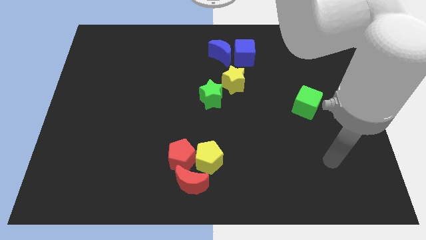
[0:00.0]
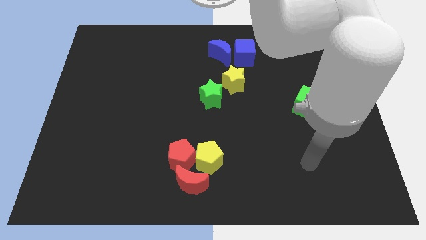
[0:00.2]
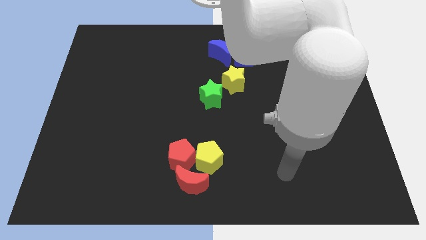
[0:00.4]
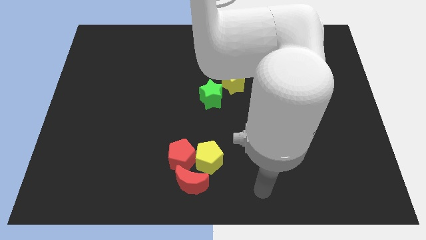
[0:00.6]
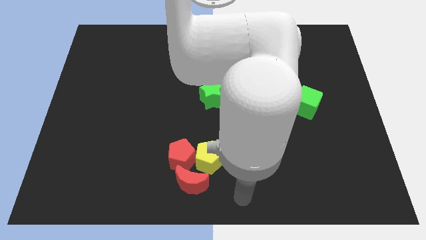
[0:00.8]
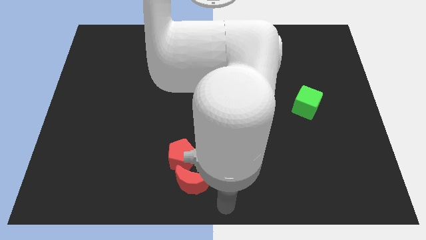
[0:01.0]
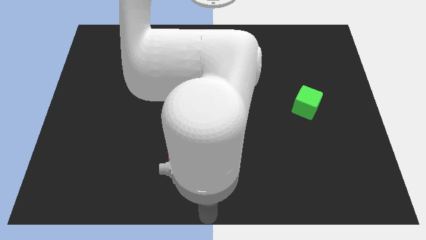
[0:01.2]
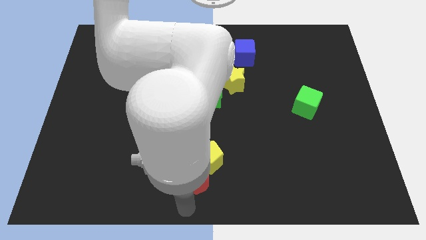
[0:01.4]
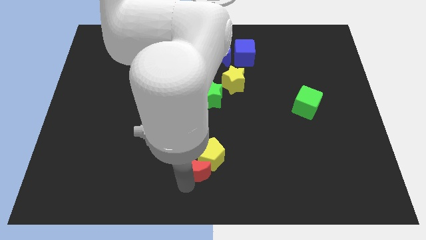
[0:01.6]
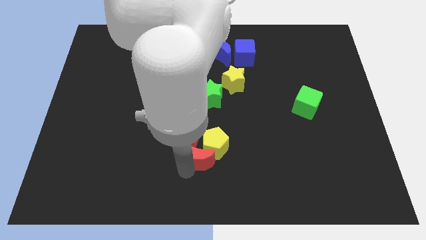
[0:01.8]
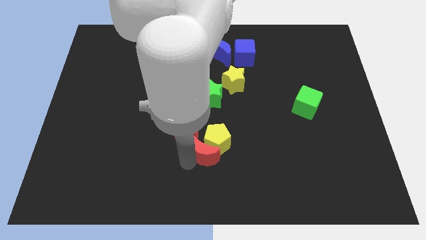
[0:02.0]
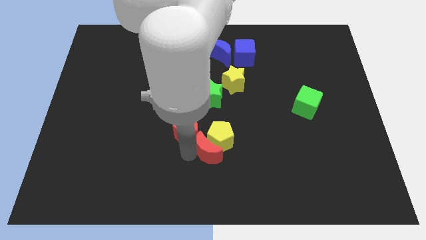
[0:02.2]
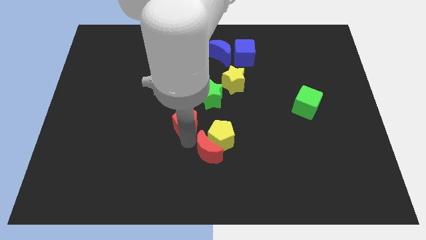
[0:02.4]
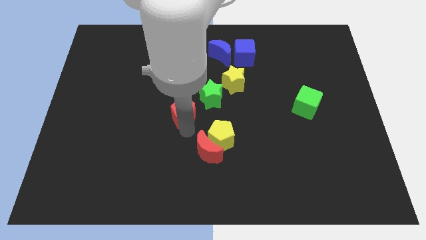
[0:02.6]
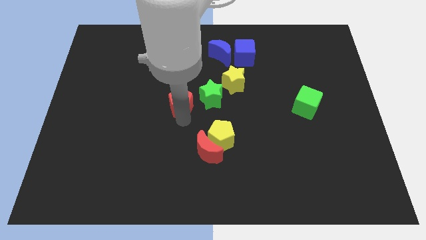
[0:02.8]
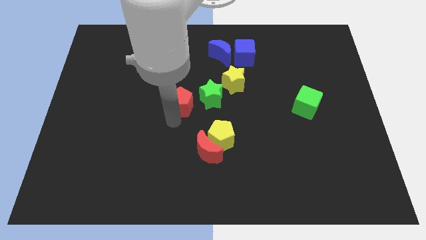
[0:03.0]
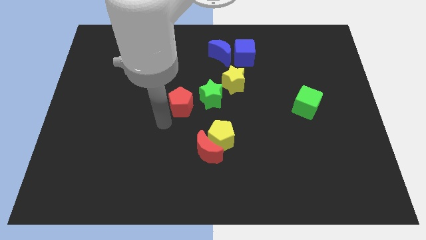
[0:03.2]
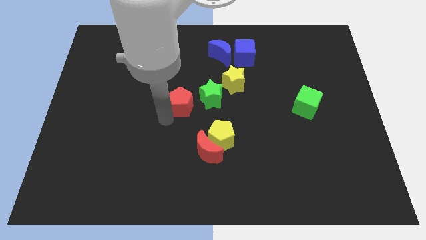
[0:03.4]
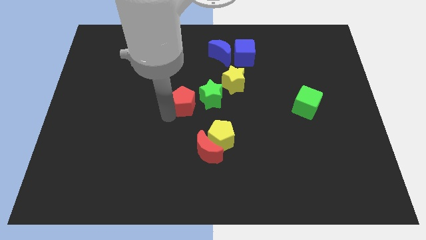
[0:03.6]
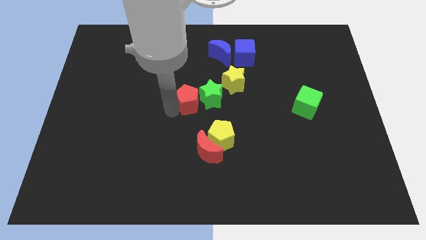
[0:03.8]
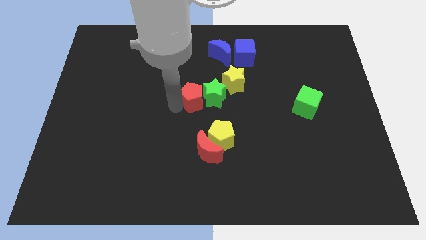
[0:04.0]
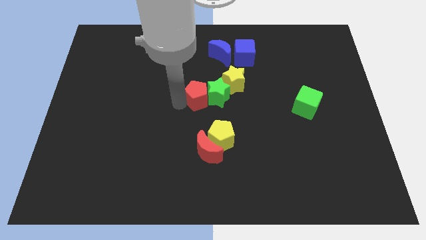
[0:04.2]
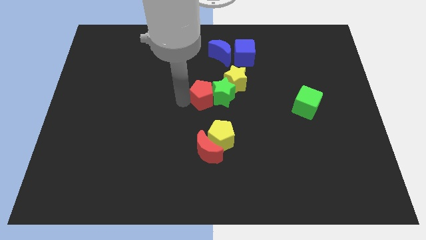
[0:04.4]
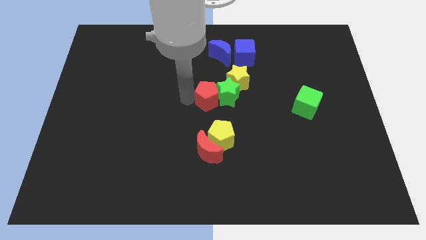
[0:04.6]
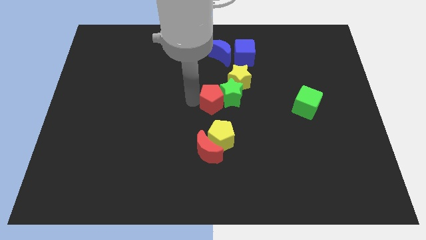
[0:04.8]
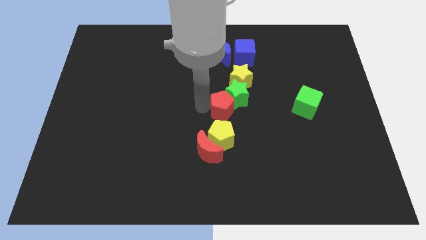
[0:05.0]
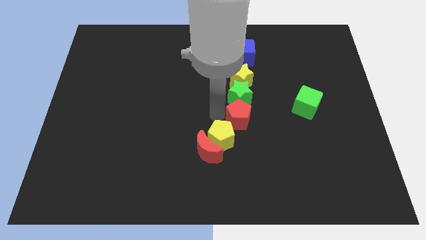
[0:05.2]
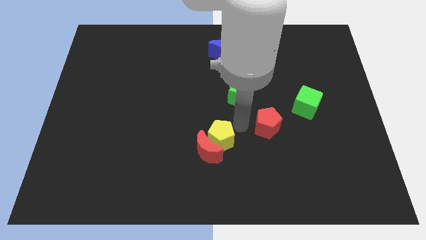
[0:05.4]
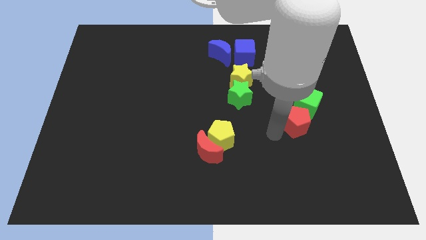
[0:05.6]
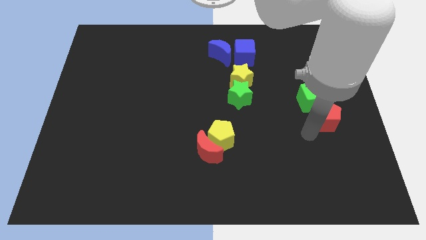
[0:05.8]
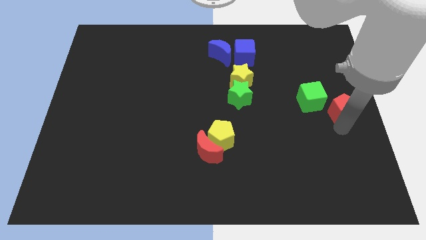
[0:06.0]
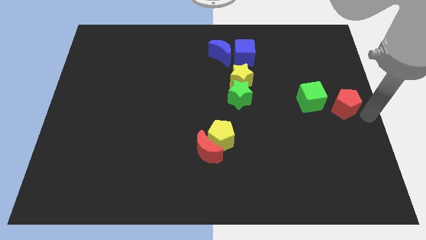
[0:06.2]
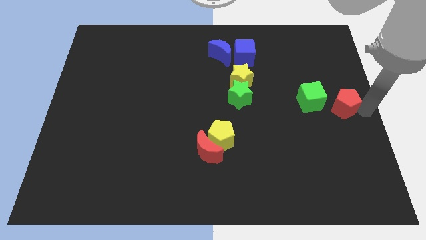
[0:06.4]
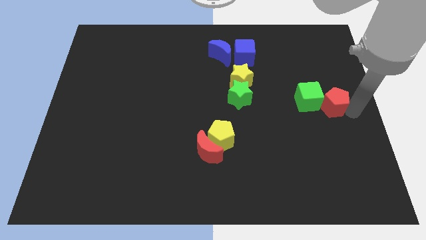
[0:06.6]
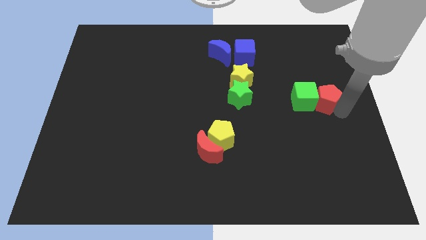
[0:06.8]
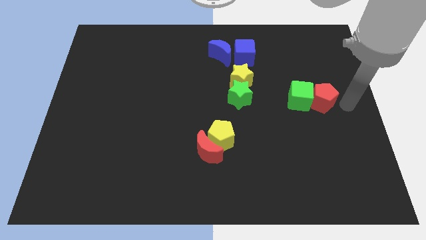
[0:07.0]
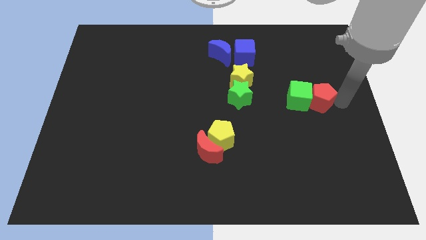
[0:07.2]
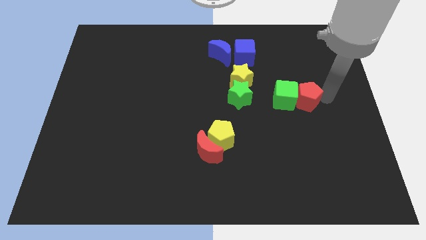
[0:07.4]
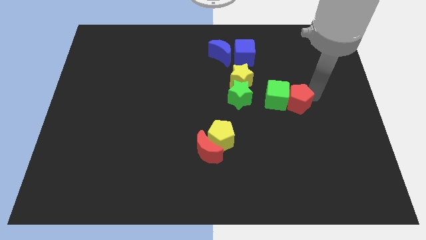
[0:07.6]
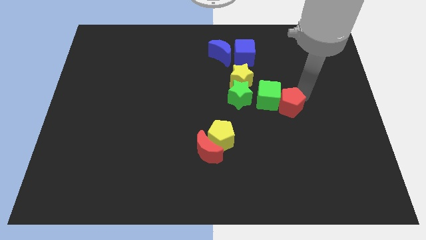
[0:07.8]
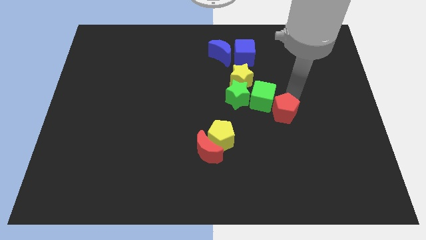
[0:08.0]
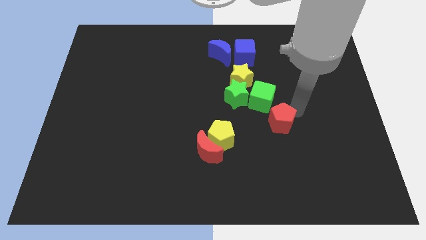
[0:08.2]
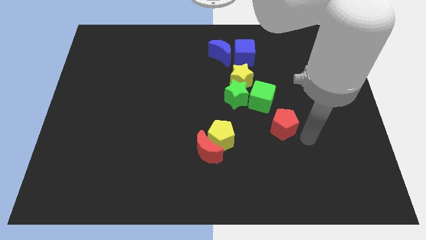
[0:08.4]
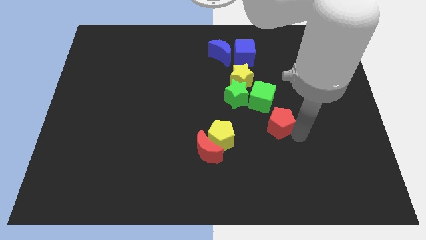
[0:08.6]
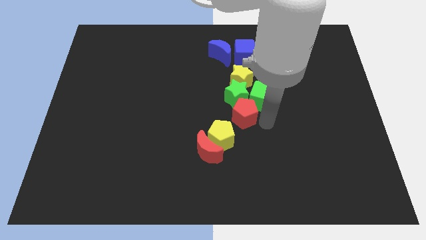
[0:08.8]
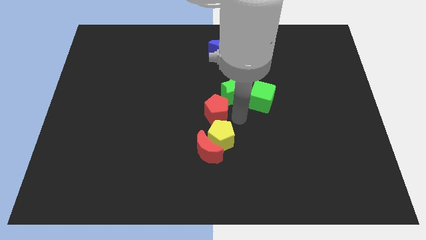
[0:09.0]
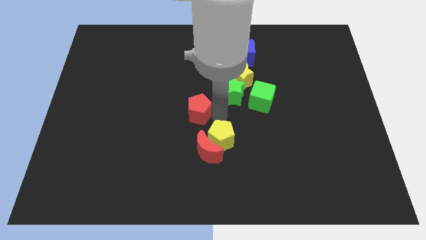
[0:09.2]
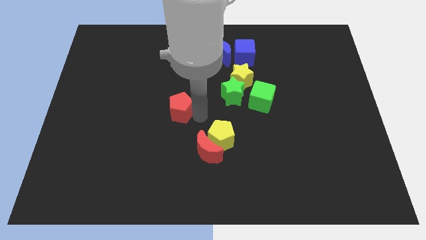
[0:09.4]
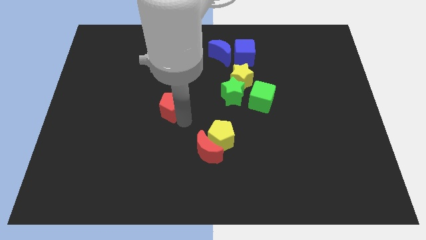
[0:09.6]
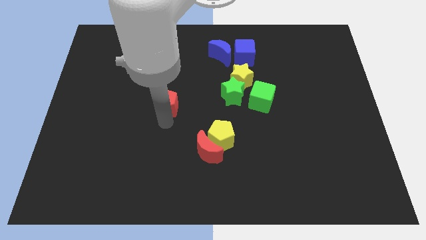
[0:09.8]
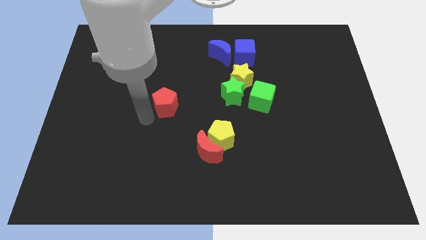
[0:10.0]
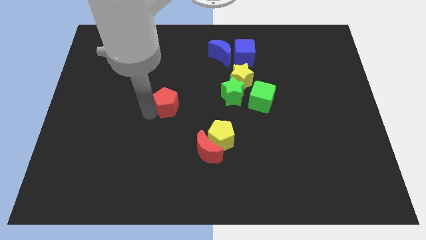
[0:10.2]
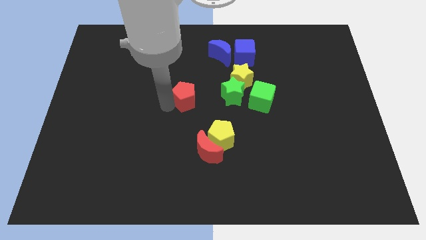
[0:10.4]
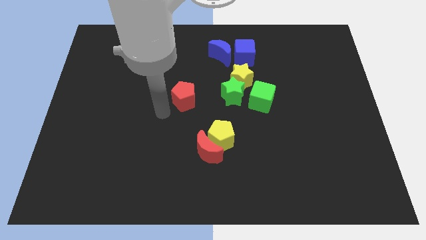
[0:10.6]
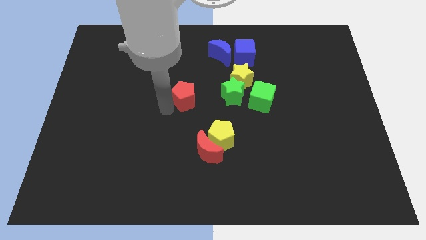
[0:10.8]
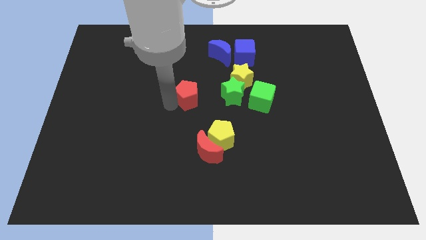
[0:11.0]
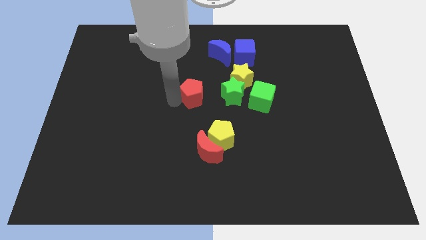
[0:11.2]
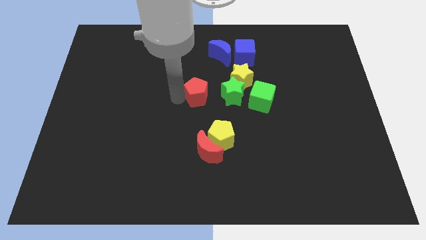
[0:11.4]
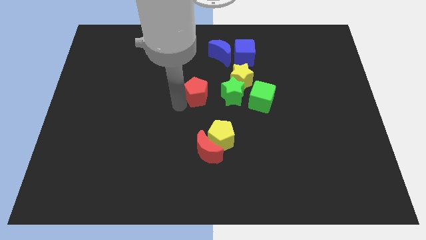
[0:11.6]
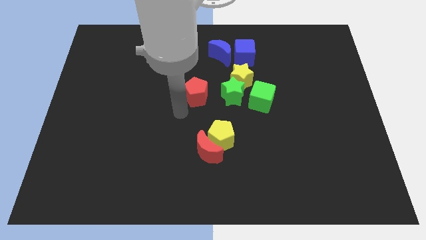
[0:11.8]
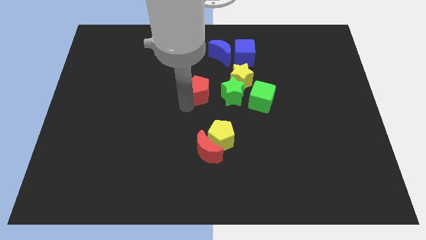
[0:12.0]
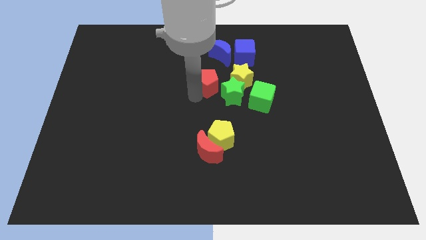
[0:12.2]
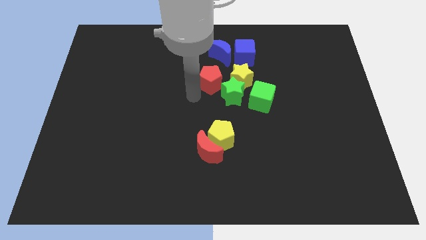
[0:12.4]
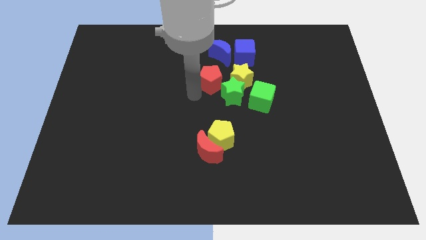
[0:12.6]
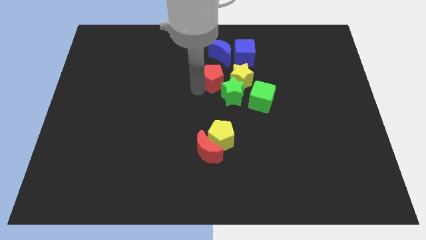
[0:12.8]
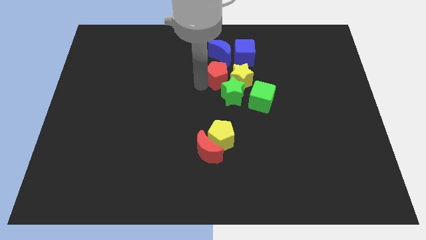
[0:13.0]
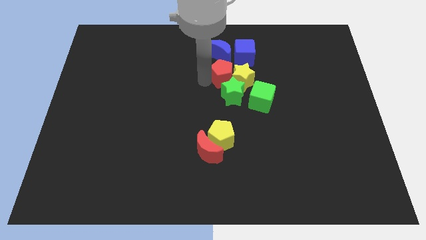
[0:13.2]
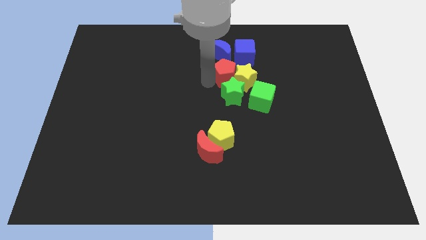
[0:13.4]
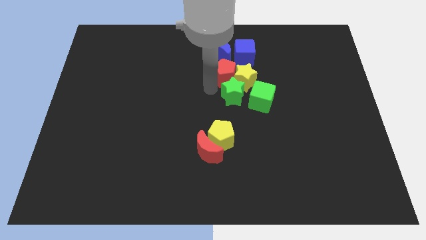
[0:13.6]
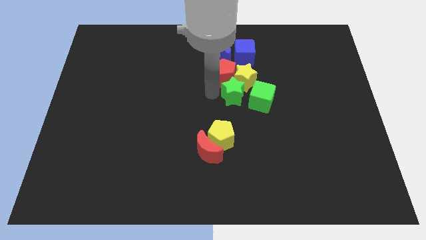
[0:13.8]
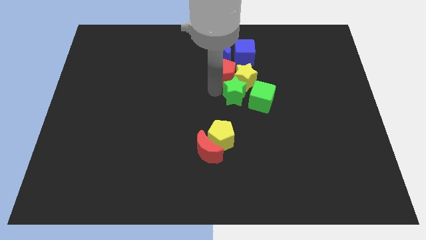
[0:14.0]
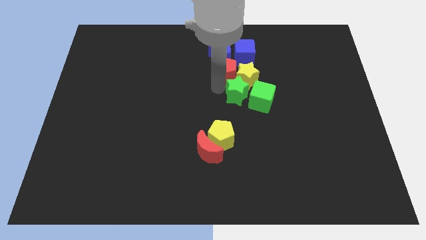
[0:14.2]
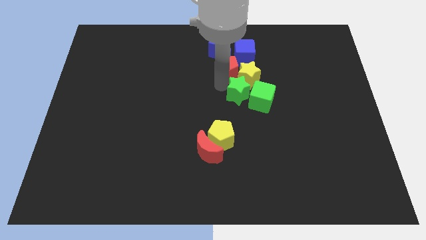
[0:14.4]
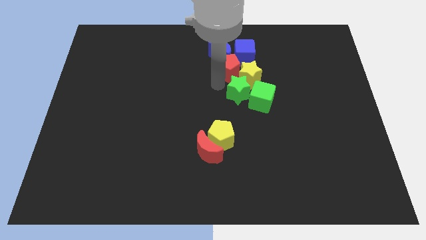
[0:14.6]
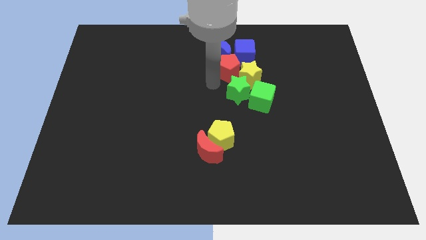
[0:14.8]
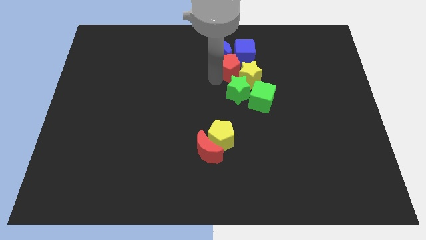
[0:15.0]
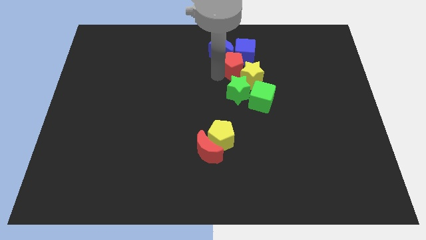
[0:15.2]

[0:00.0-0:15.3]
slide the red pentagon to the blue cube

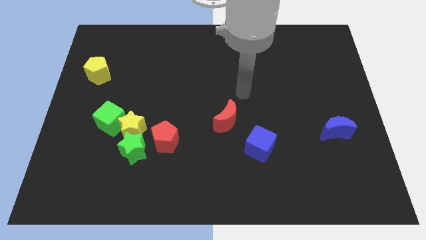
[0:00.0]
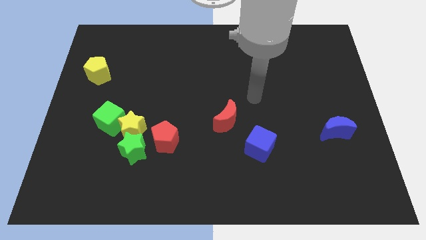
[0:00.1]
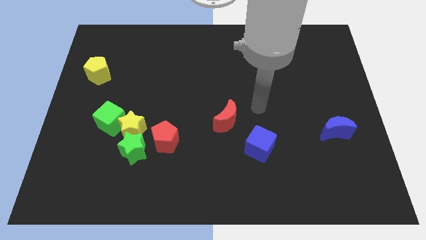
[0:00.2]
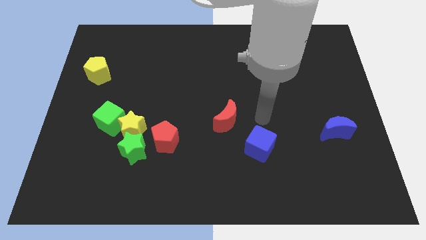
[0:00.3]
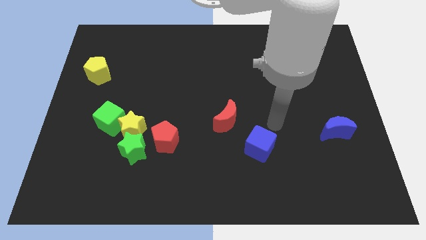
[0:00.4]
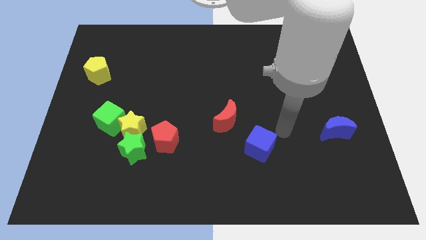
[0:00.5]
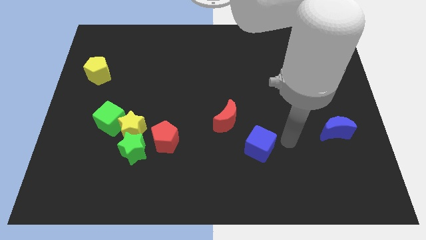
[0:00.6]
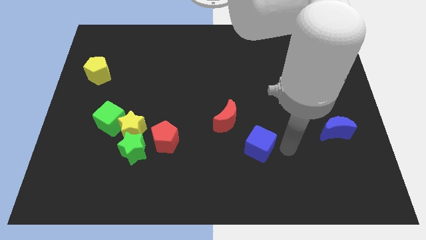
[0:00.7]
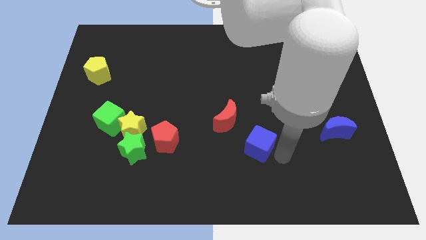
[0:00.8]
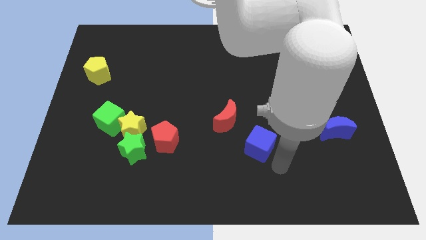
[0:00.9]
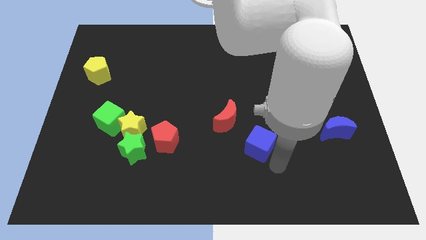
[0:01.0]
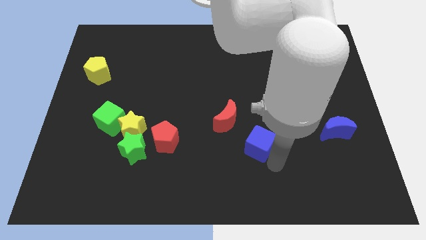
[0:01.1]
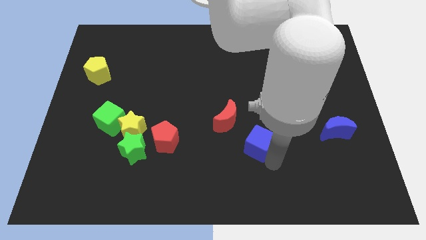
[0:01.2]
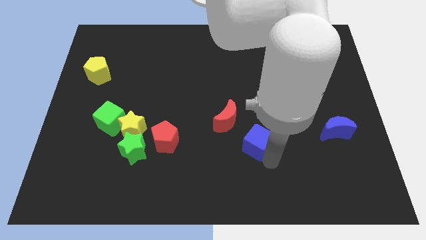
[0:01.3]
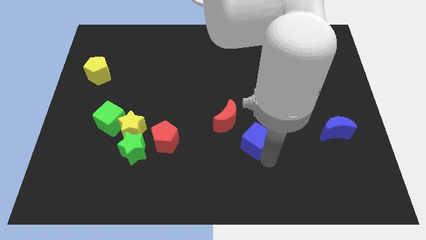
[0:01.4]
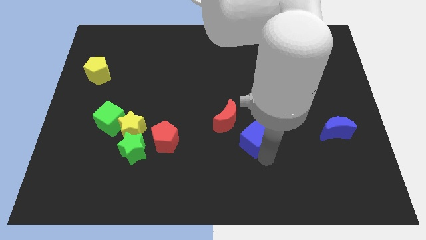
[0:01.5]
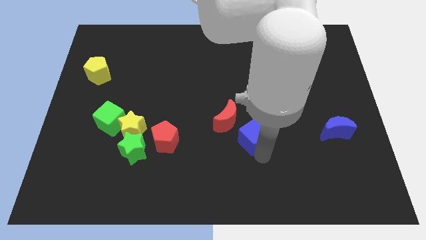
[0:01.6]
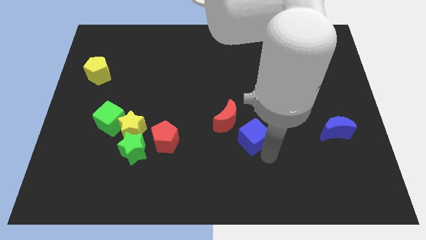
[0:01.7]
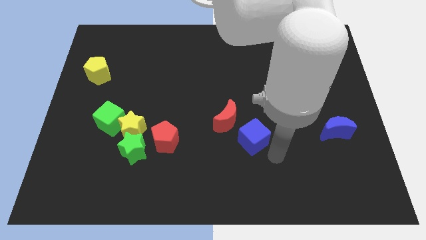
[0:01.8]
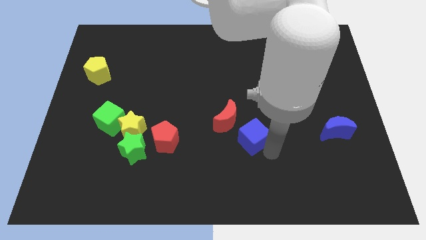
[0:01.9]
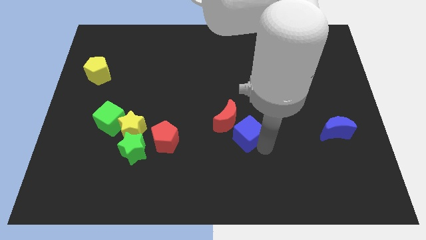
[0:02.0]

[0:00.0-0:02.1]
slide the blue cube close to the red moon
